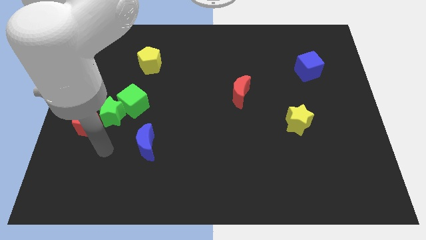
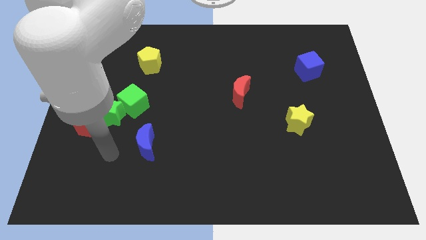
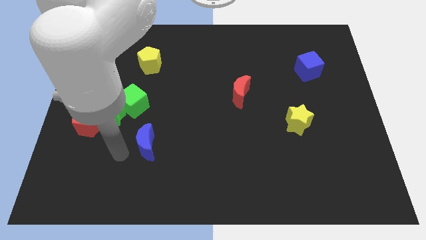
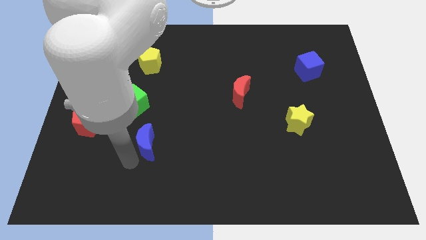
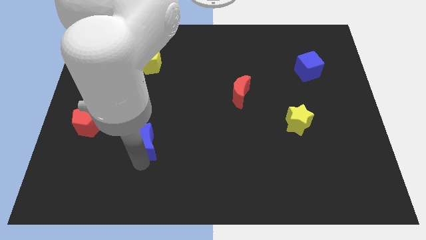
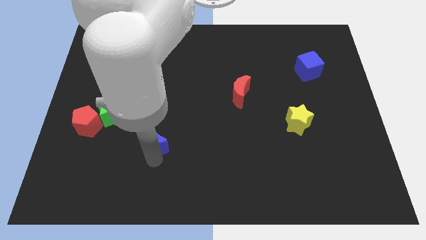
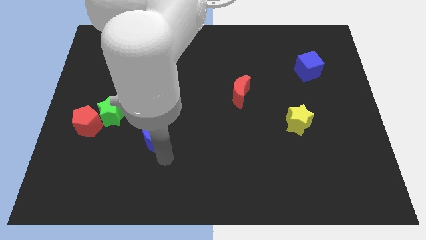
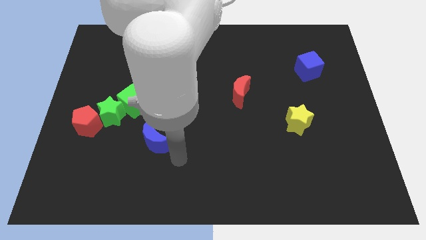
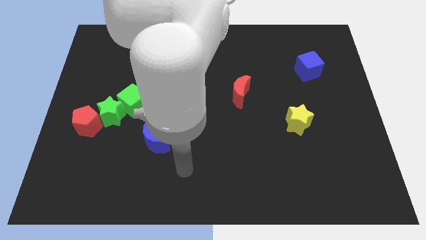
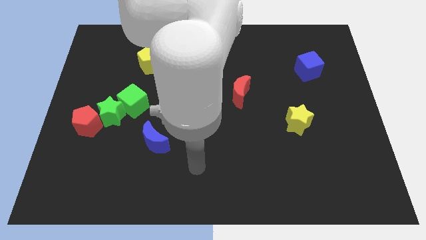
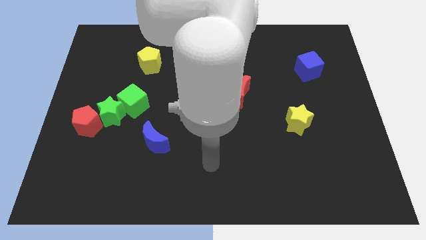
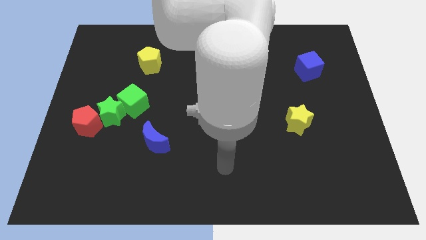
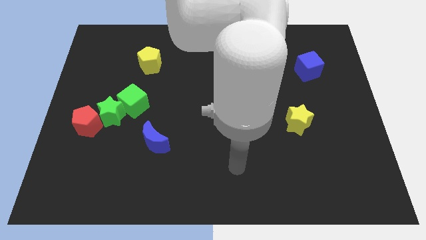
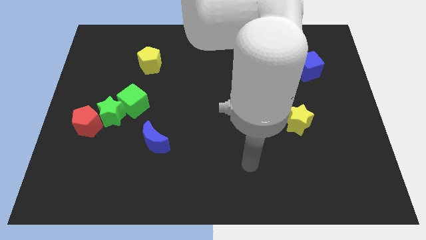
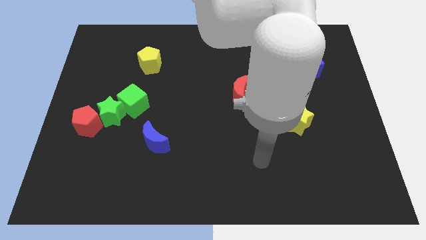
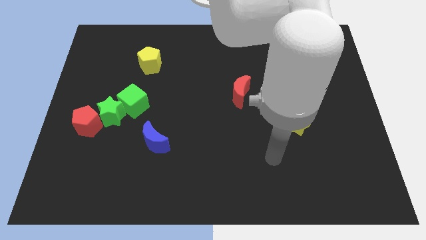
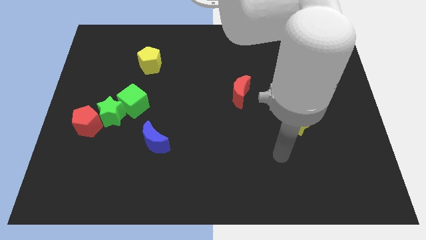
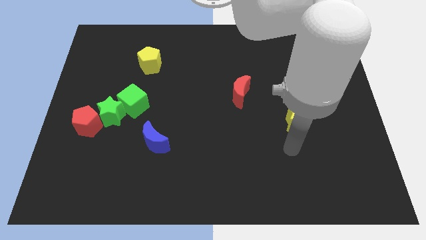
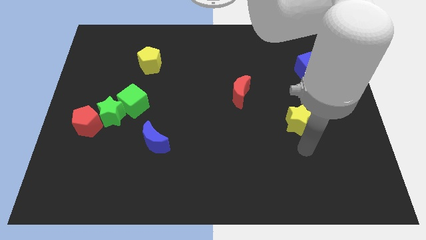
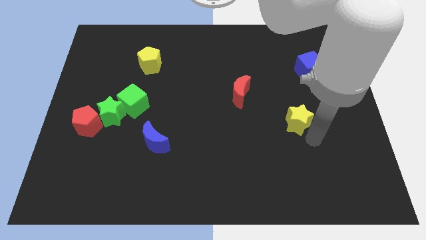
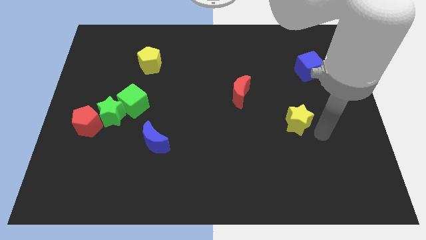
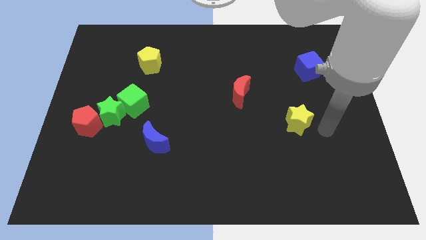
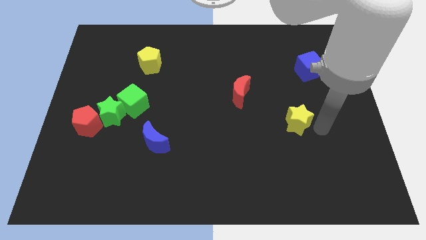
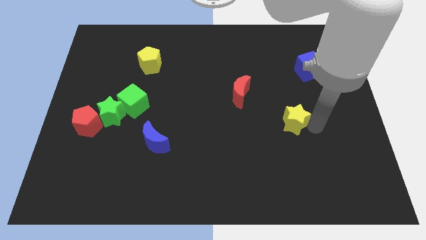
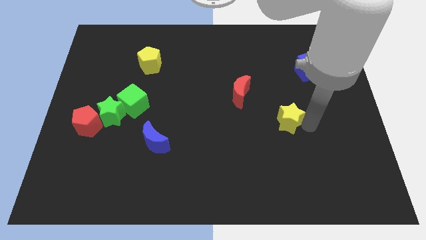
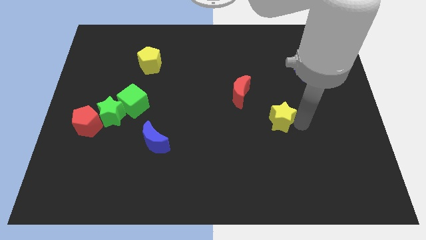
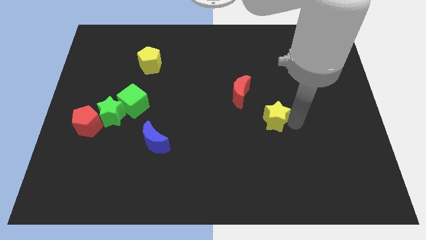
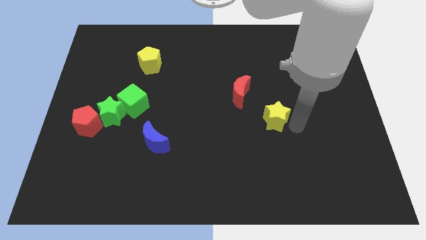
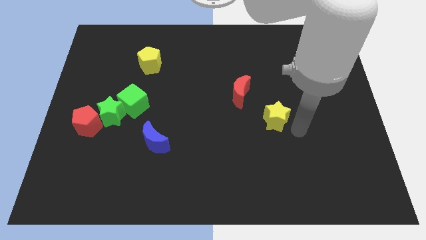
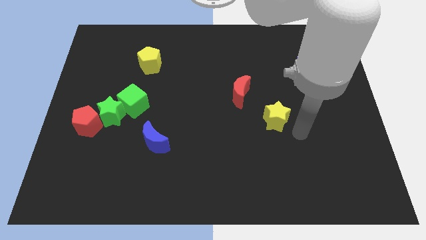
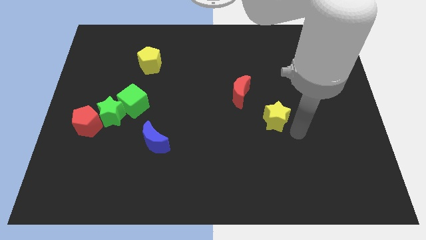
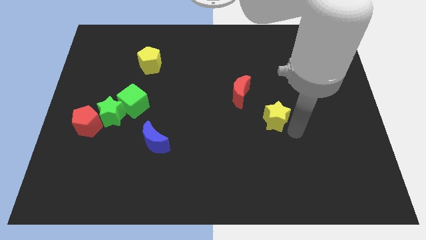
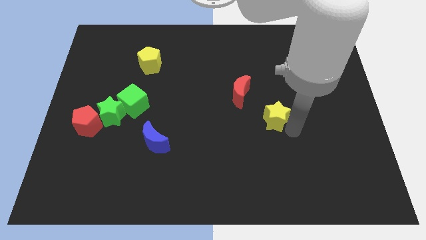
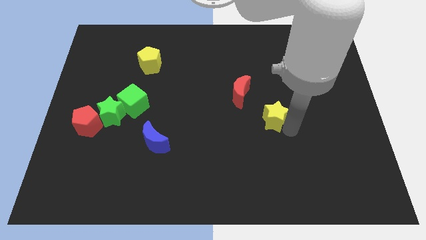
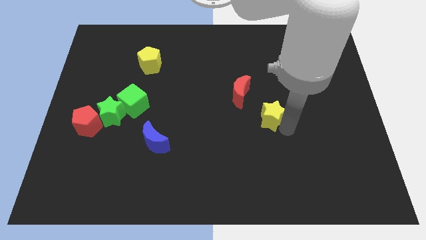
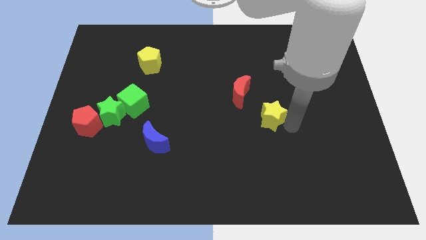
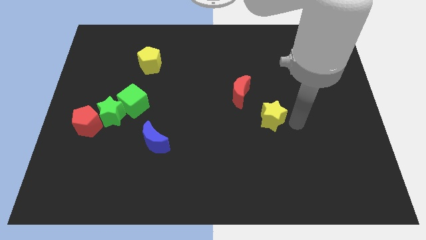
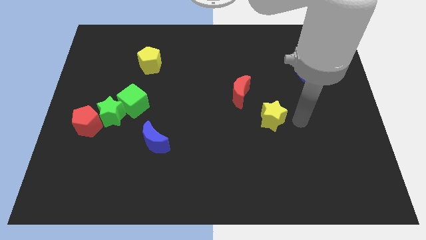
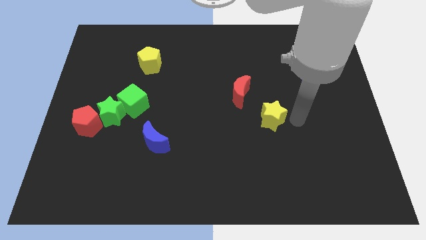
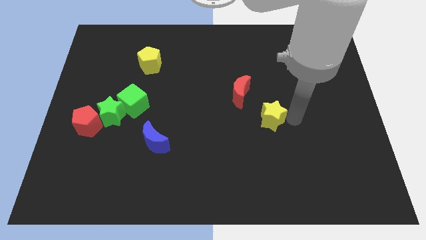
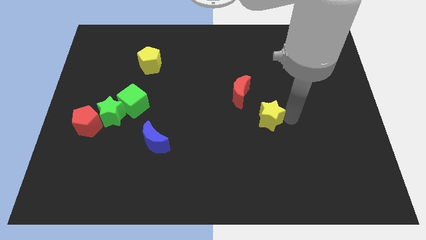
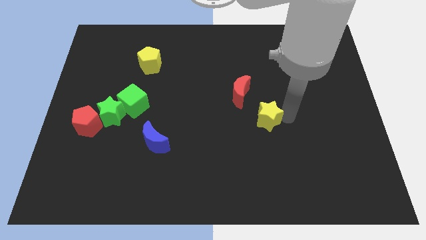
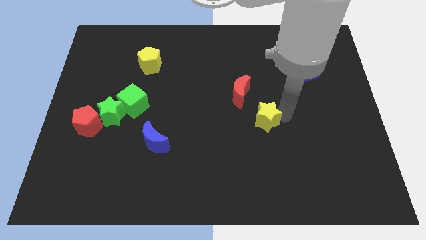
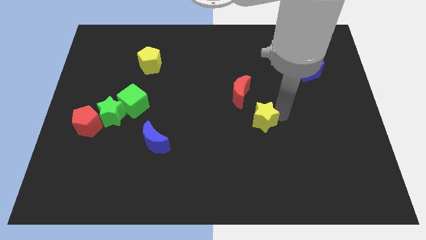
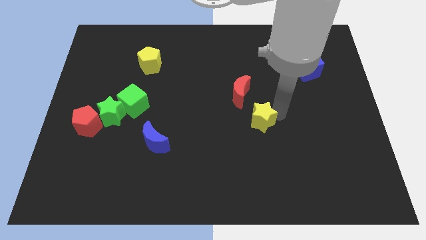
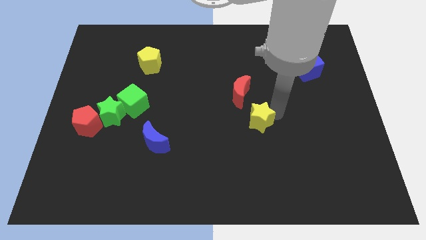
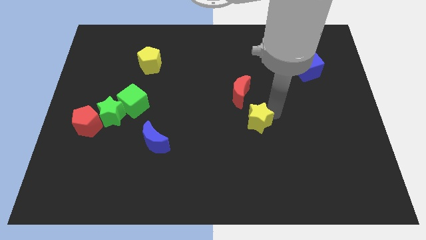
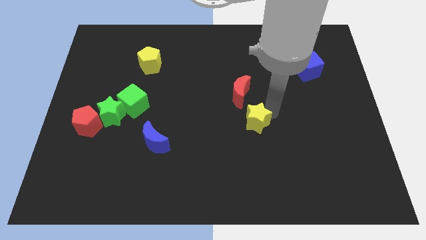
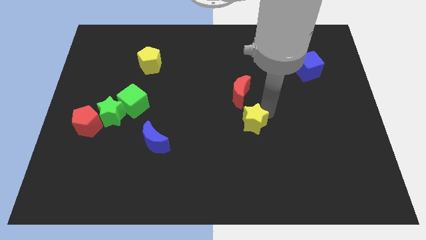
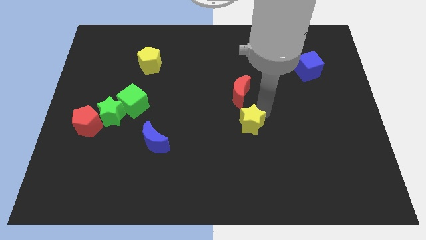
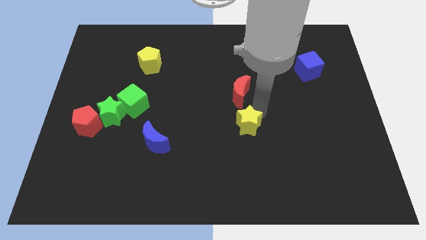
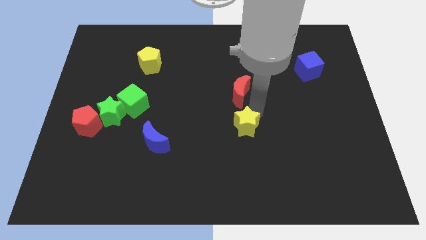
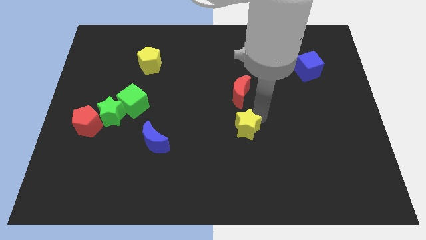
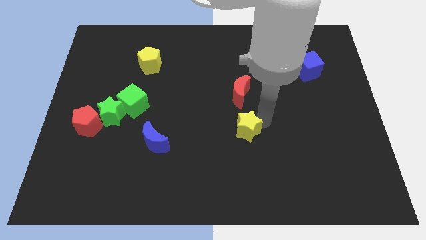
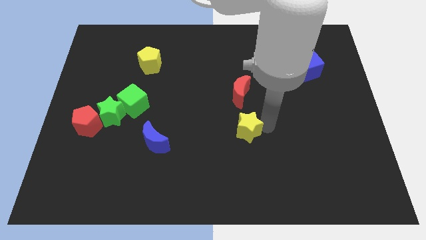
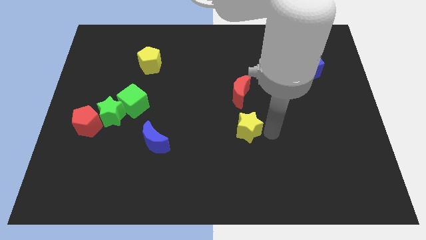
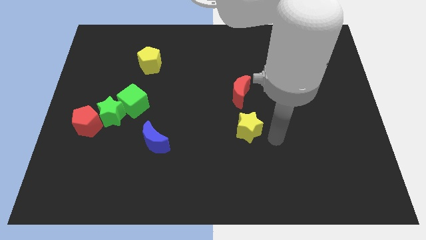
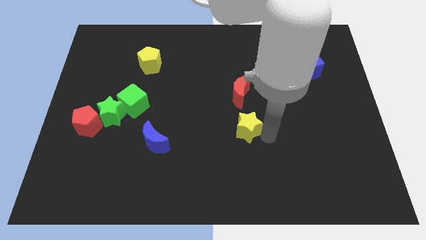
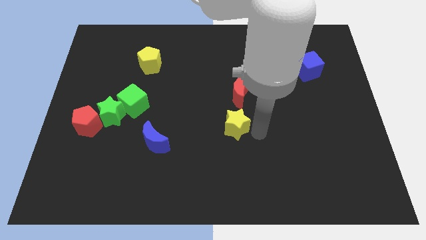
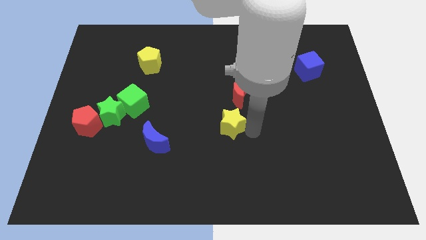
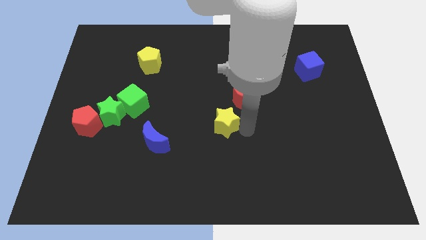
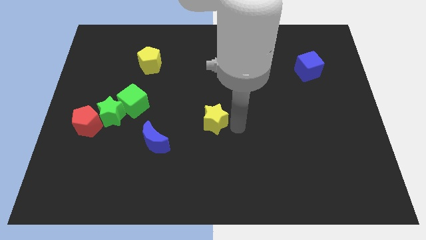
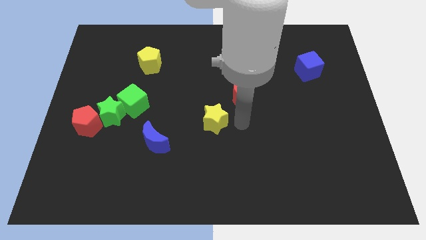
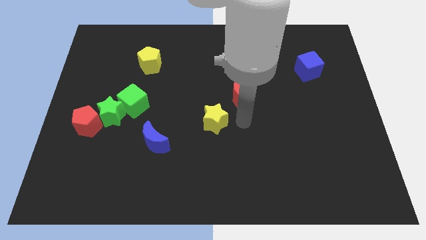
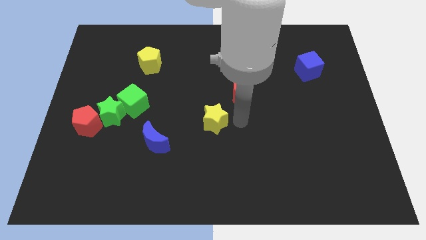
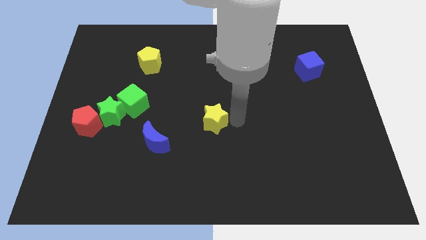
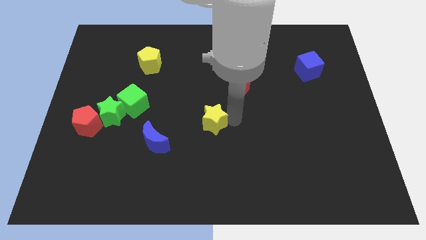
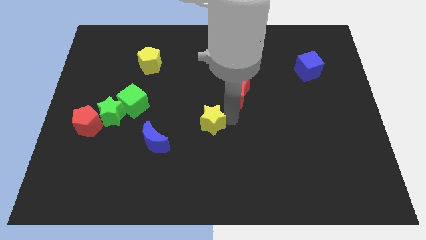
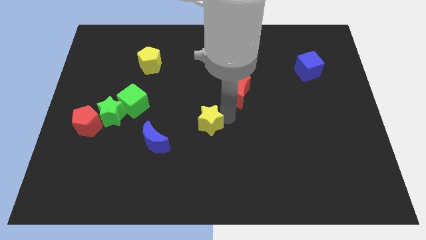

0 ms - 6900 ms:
move the yellow star to the left

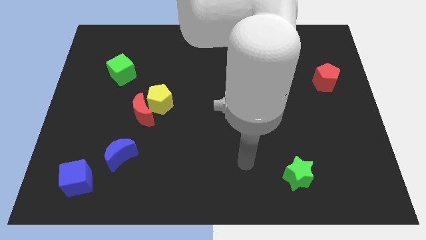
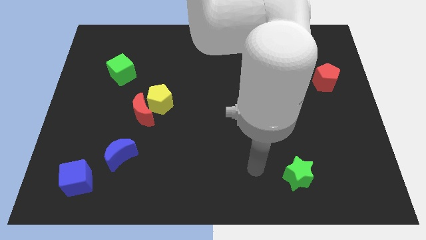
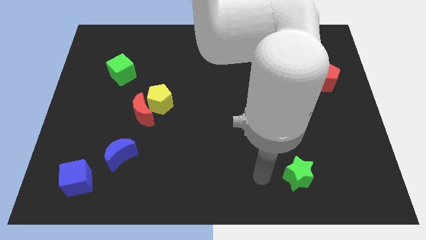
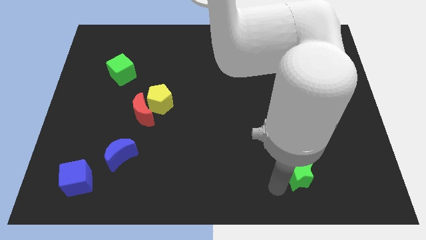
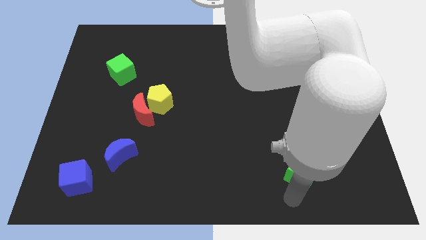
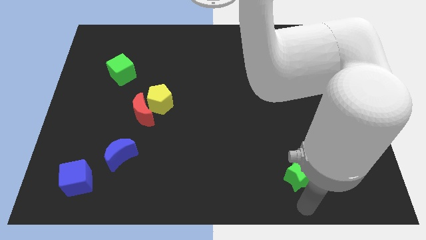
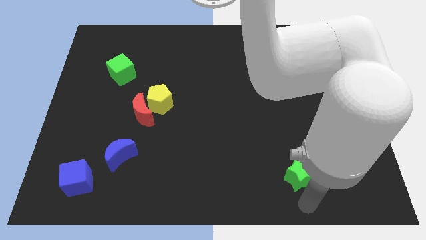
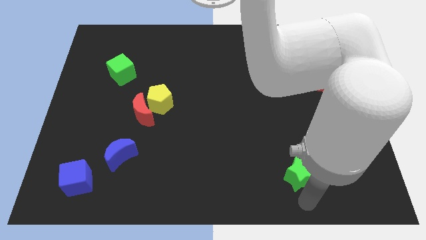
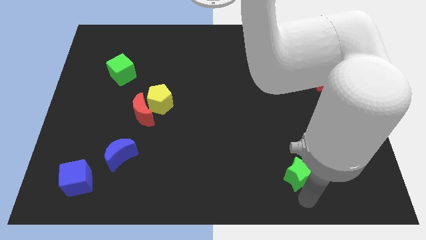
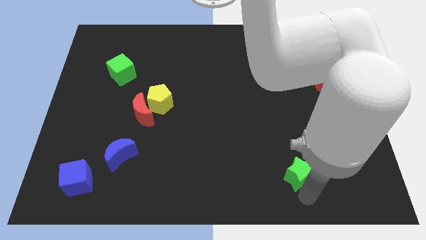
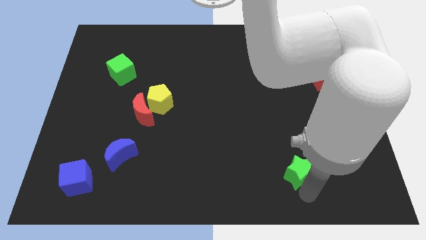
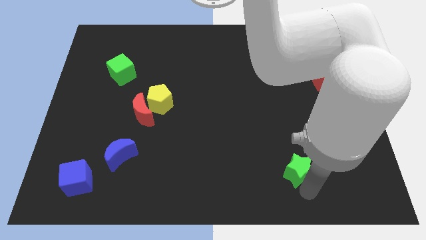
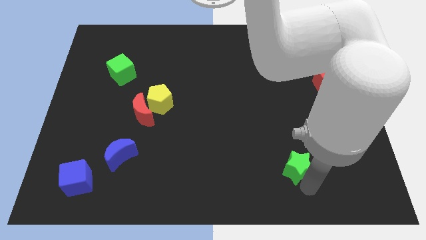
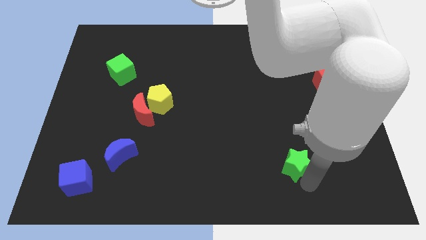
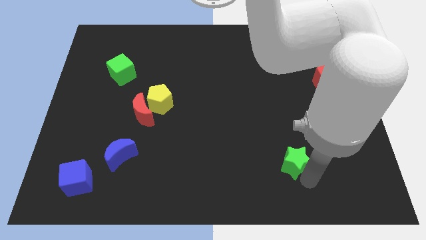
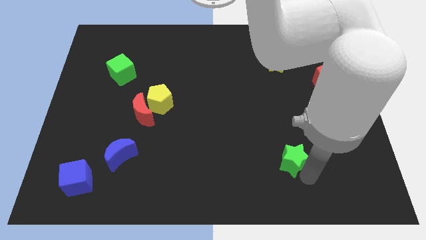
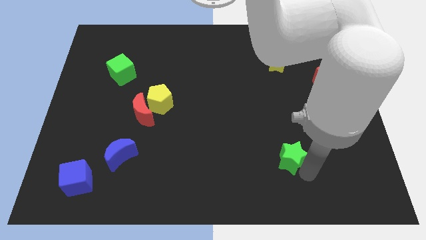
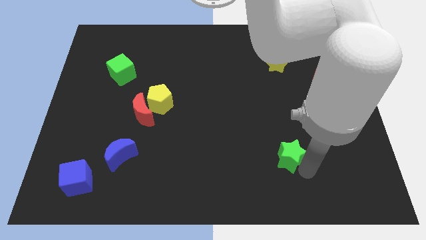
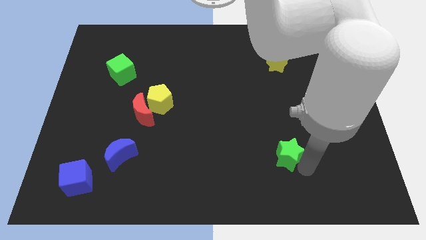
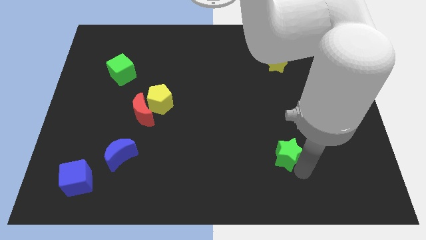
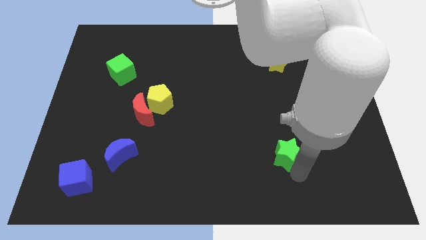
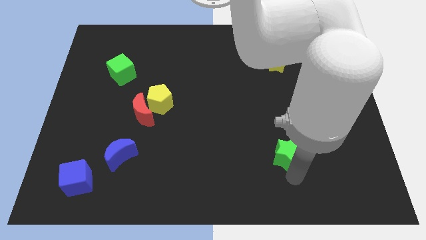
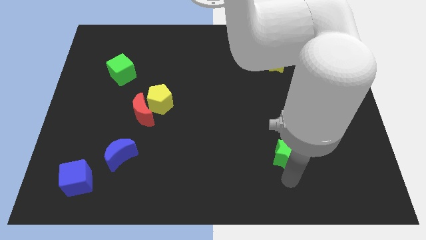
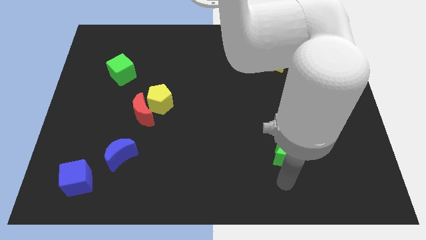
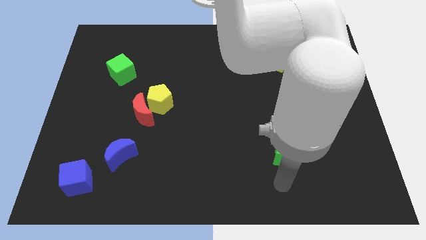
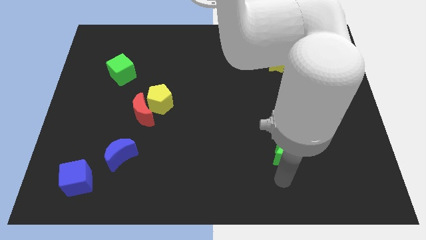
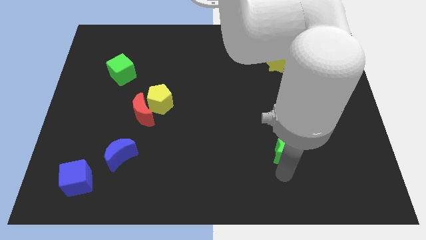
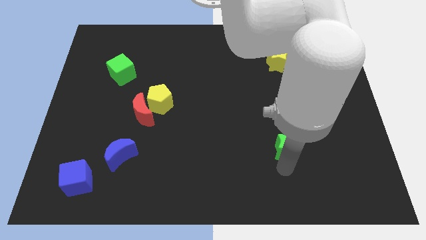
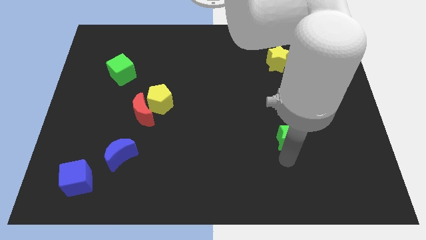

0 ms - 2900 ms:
slide the green star up somewhat
